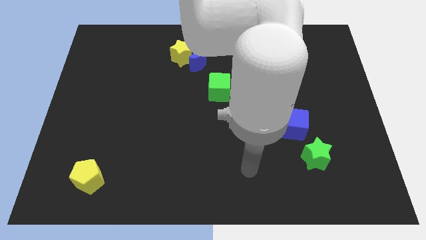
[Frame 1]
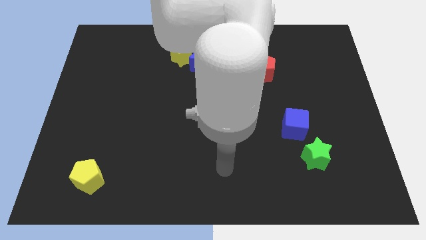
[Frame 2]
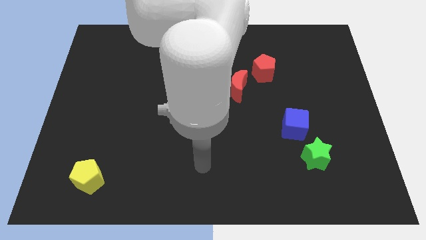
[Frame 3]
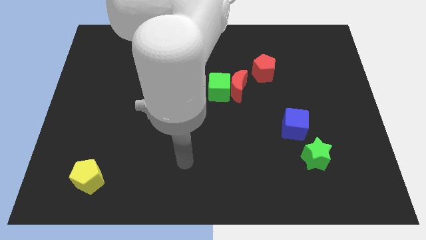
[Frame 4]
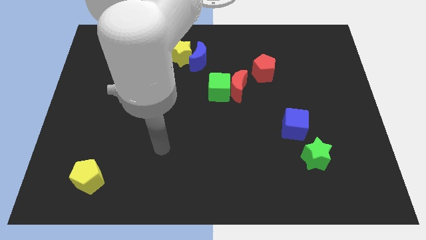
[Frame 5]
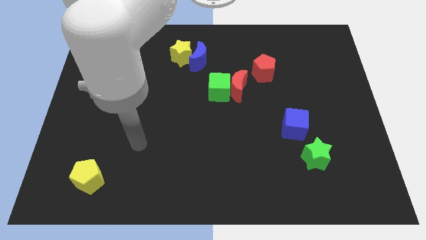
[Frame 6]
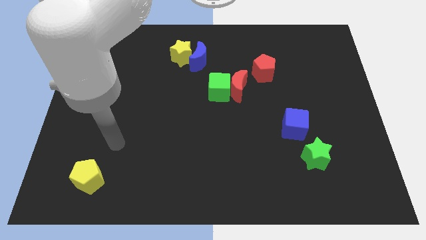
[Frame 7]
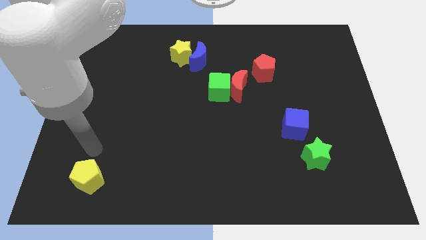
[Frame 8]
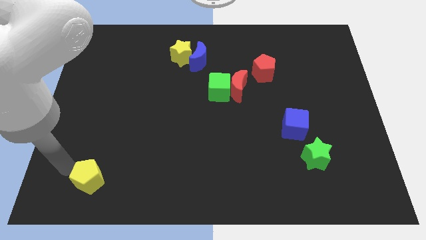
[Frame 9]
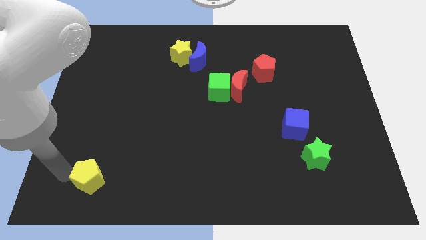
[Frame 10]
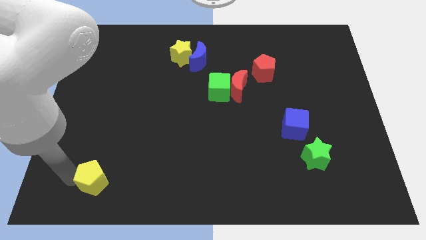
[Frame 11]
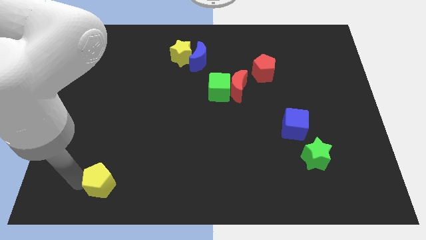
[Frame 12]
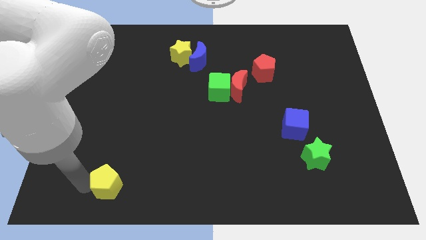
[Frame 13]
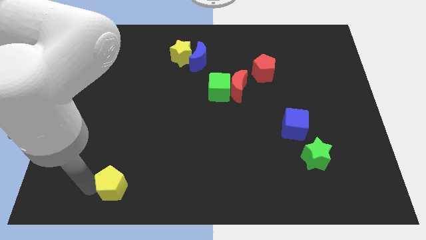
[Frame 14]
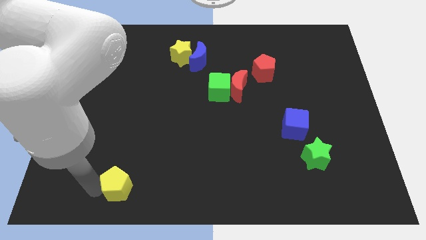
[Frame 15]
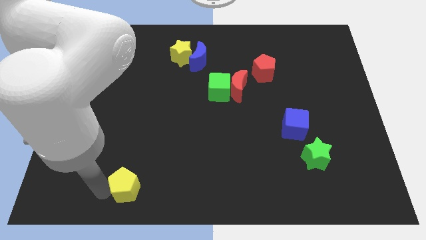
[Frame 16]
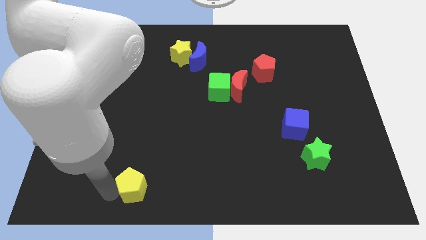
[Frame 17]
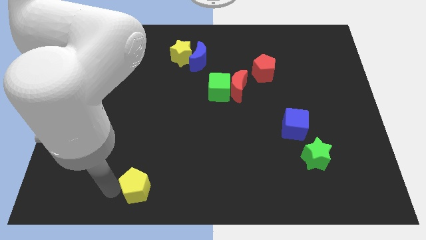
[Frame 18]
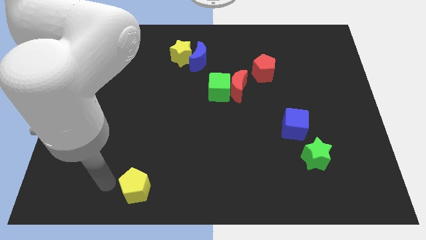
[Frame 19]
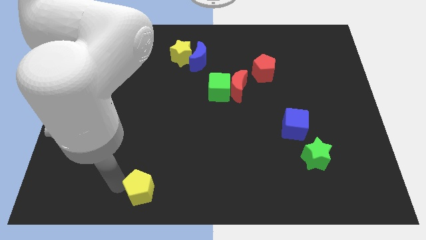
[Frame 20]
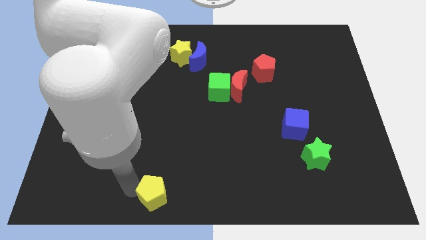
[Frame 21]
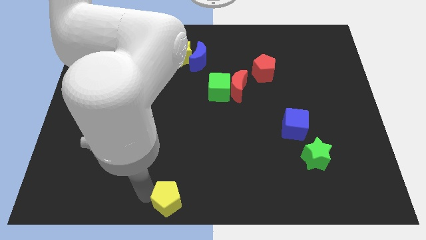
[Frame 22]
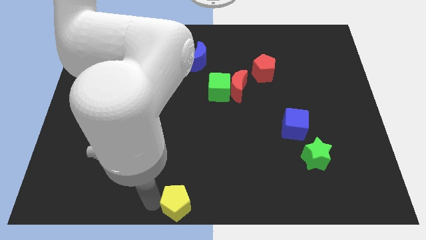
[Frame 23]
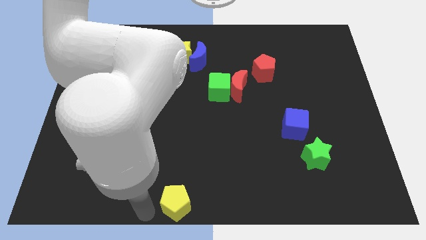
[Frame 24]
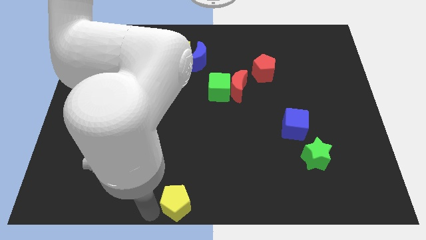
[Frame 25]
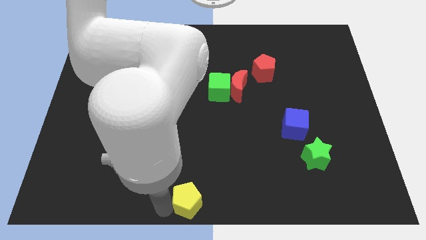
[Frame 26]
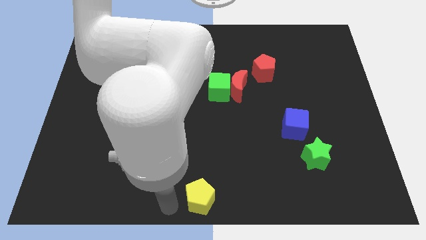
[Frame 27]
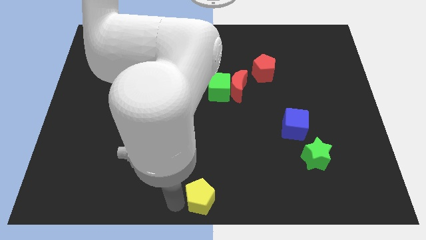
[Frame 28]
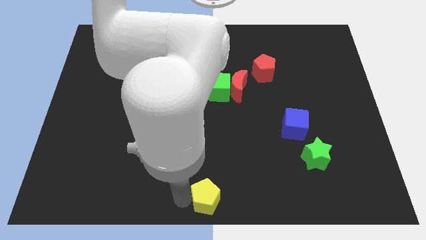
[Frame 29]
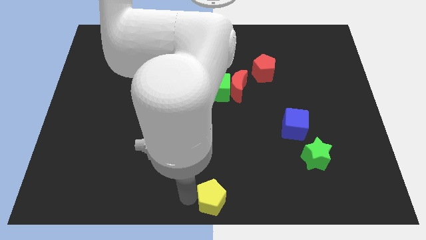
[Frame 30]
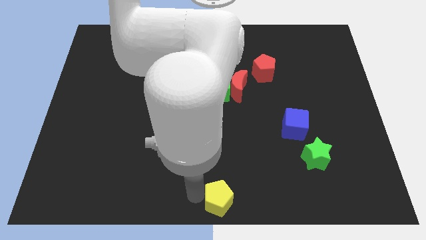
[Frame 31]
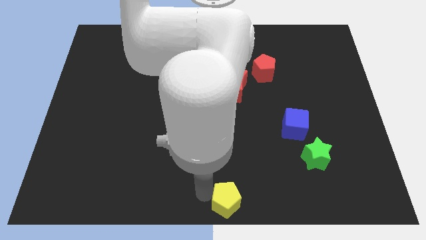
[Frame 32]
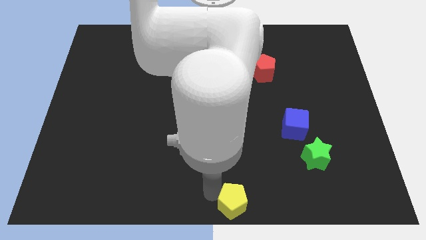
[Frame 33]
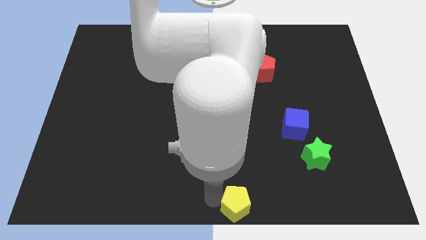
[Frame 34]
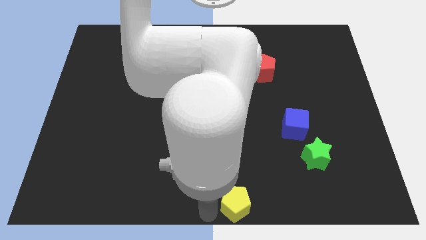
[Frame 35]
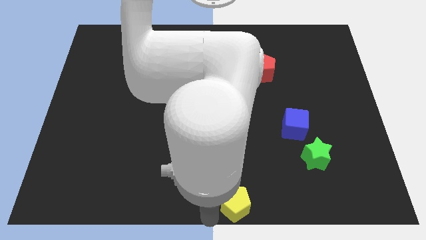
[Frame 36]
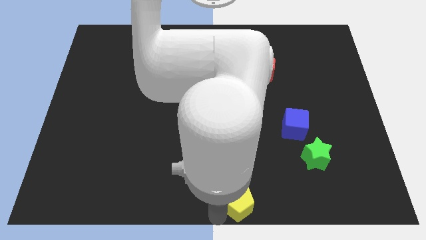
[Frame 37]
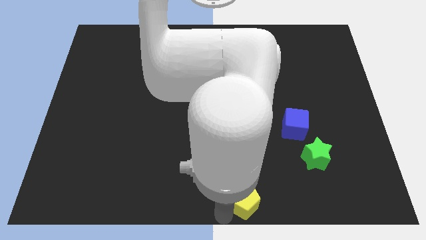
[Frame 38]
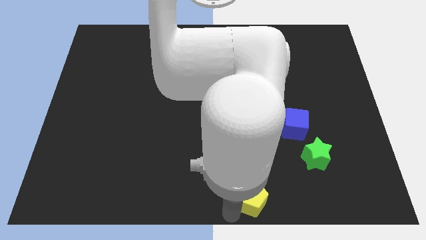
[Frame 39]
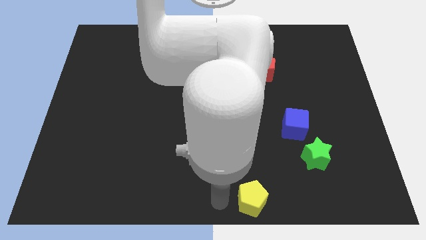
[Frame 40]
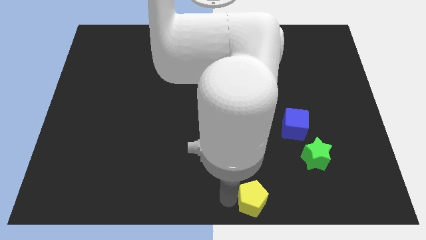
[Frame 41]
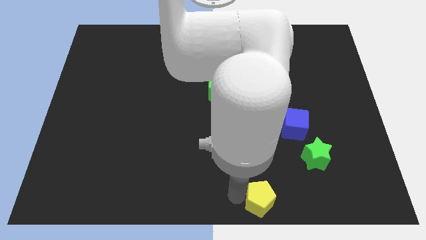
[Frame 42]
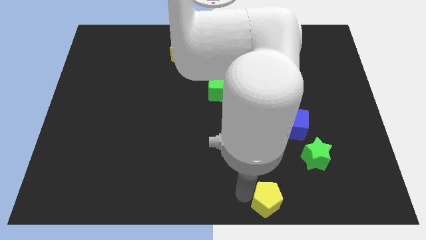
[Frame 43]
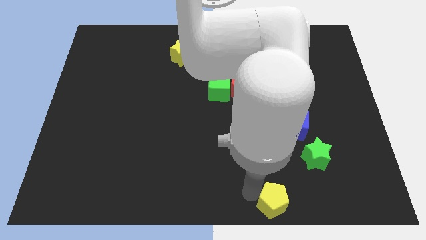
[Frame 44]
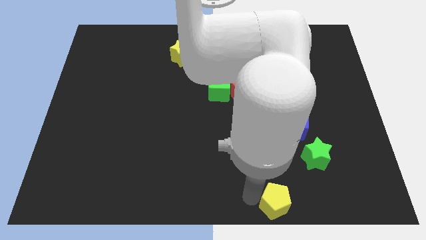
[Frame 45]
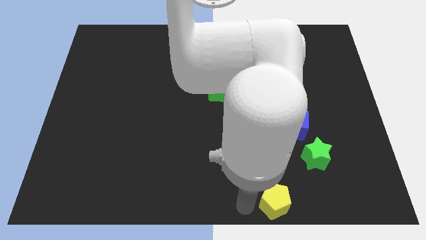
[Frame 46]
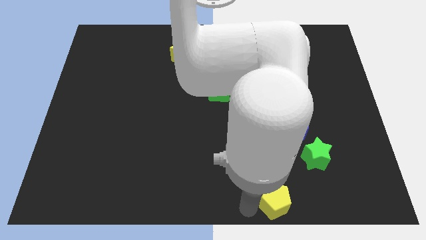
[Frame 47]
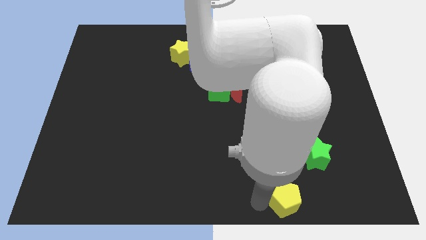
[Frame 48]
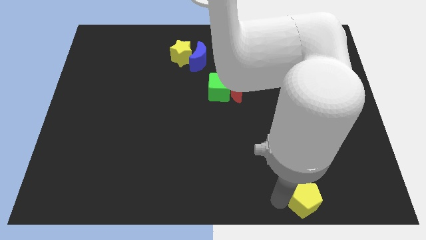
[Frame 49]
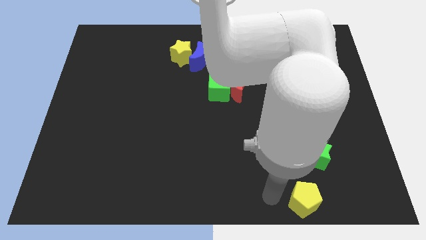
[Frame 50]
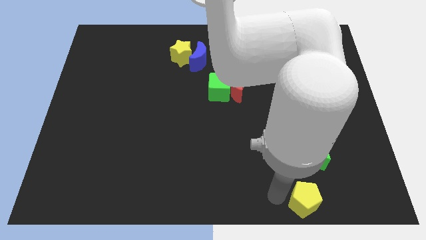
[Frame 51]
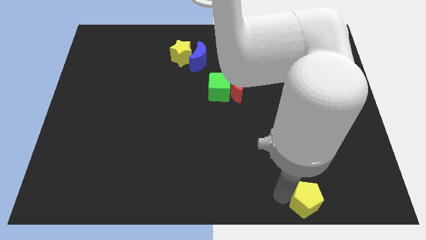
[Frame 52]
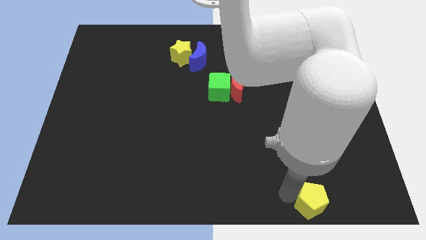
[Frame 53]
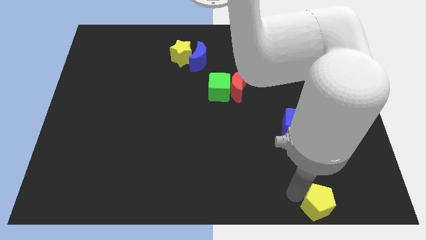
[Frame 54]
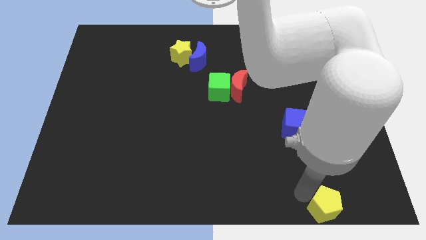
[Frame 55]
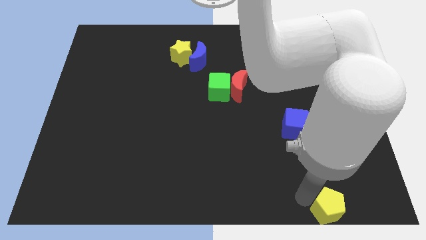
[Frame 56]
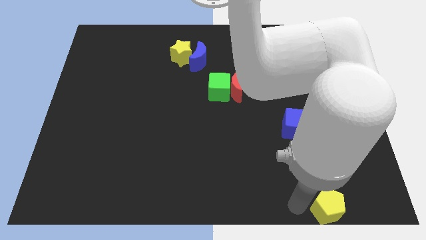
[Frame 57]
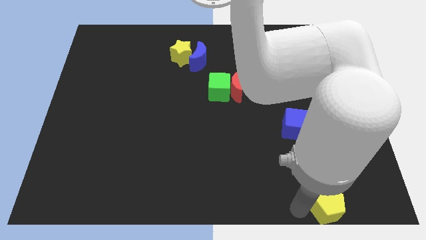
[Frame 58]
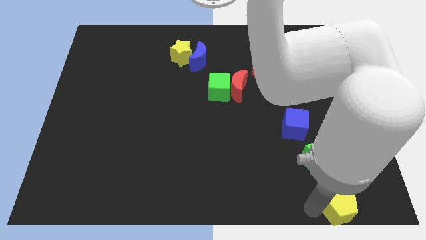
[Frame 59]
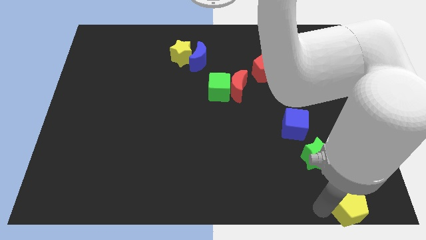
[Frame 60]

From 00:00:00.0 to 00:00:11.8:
put the yellow pentagon to the lower right corner

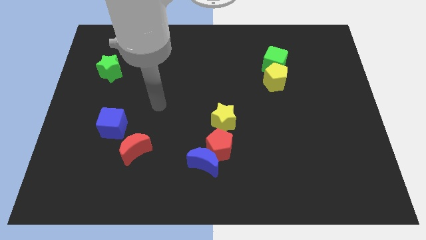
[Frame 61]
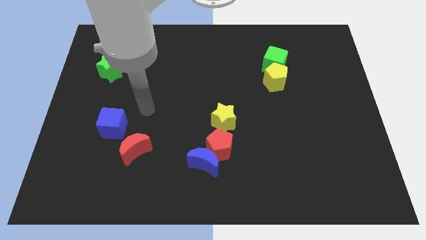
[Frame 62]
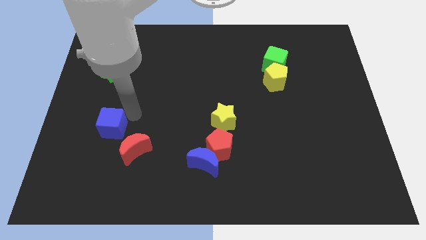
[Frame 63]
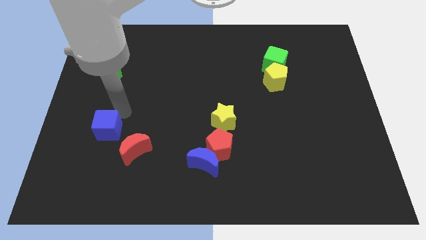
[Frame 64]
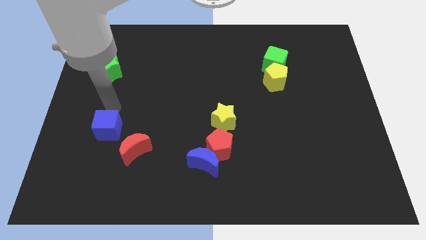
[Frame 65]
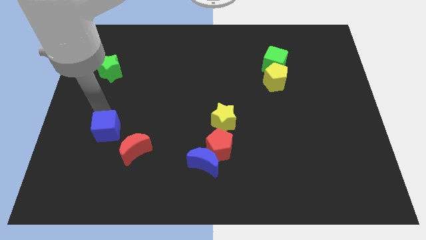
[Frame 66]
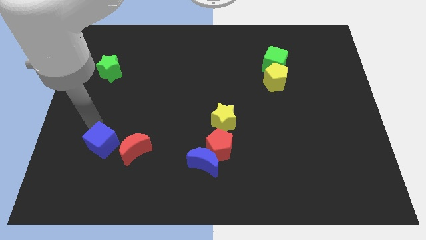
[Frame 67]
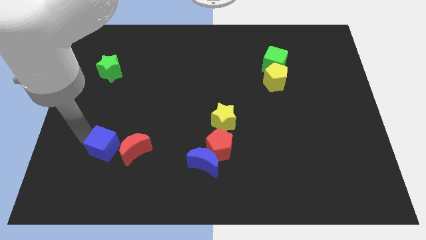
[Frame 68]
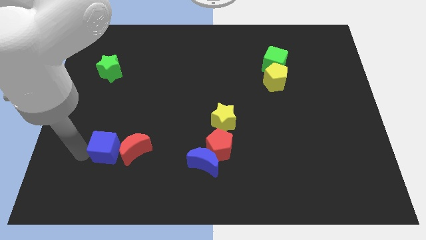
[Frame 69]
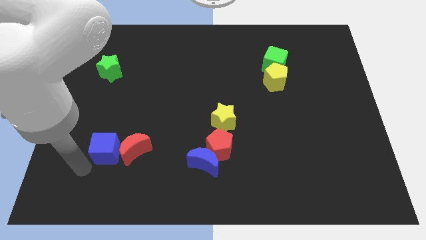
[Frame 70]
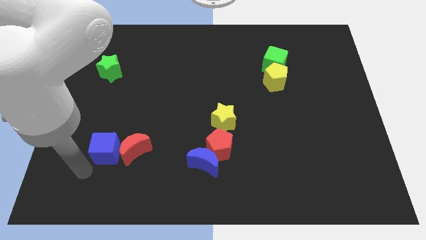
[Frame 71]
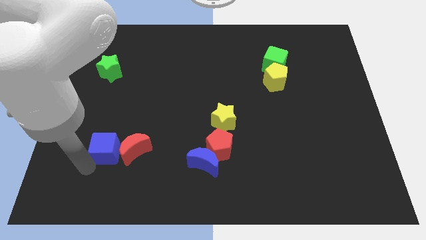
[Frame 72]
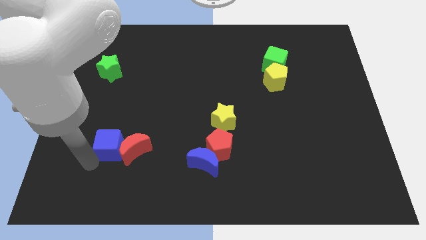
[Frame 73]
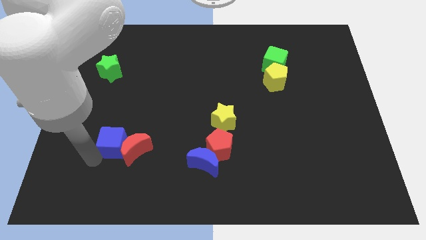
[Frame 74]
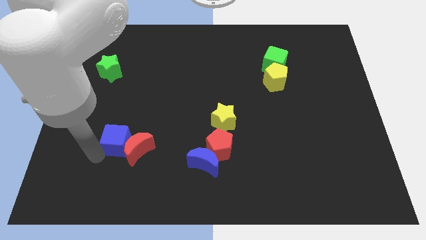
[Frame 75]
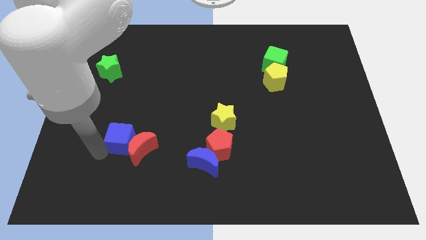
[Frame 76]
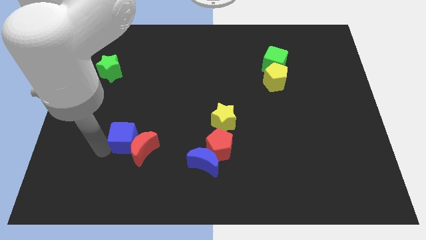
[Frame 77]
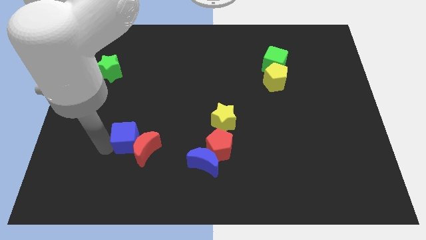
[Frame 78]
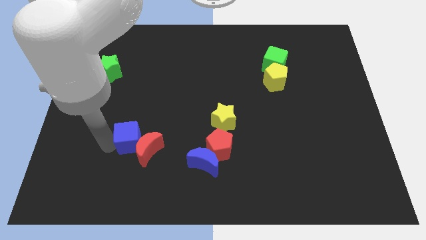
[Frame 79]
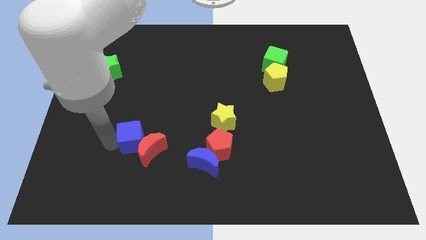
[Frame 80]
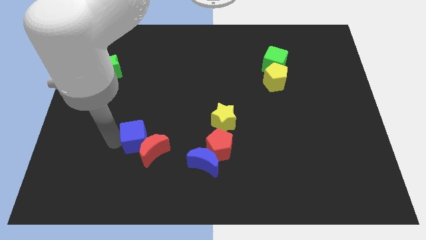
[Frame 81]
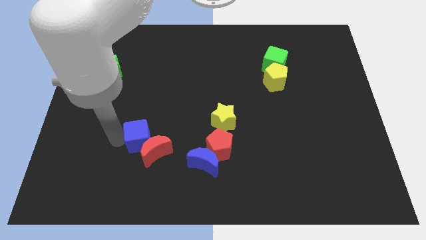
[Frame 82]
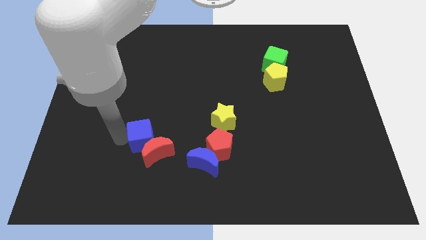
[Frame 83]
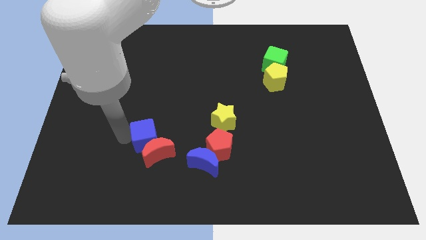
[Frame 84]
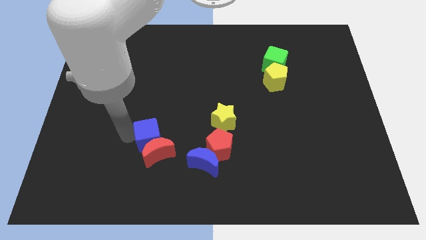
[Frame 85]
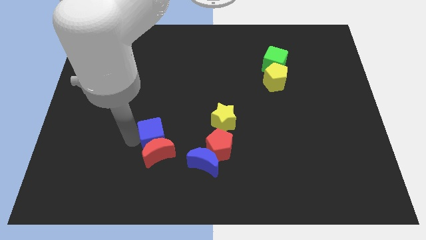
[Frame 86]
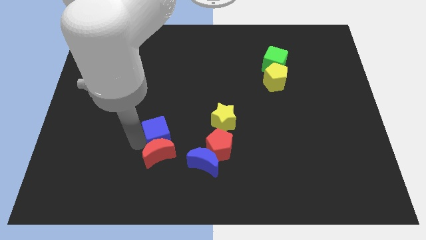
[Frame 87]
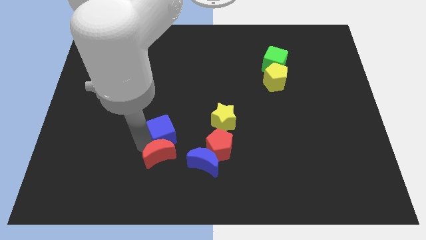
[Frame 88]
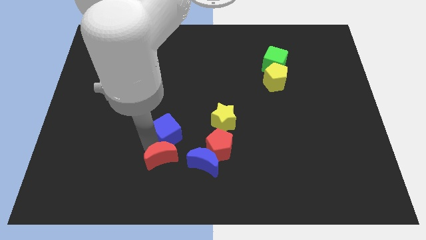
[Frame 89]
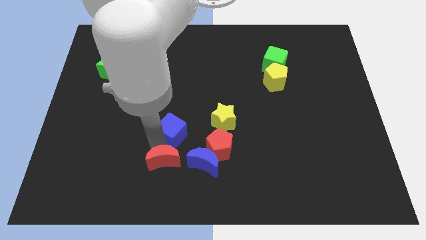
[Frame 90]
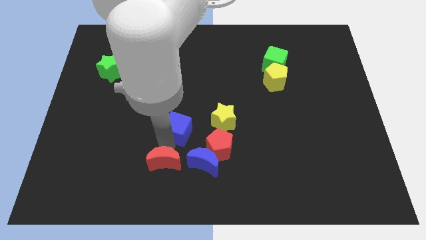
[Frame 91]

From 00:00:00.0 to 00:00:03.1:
put the blue cube to the middle of the board
